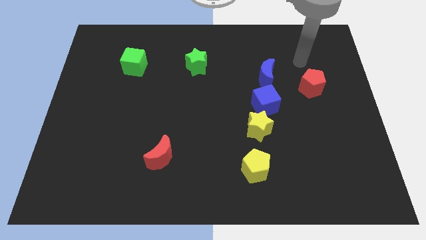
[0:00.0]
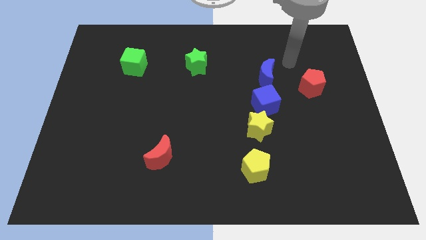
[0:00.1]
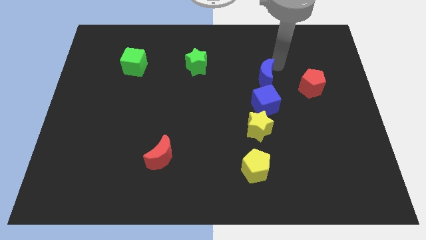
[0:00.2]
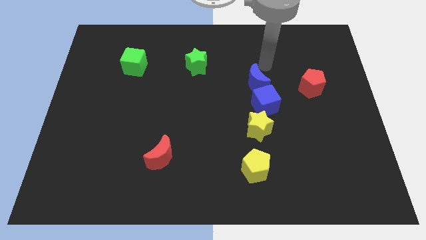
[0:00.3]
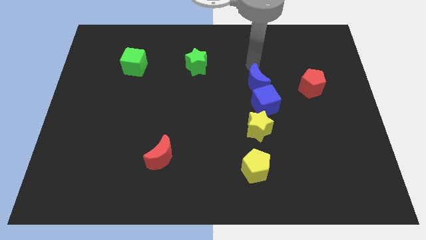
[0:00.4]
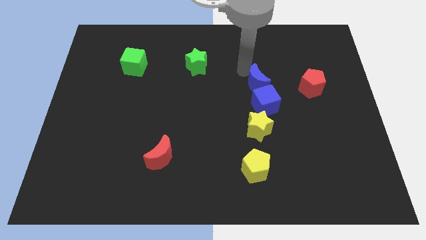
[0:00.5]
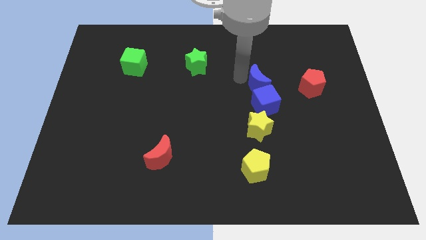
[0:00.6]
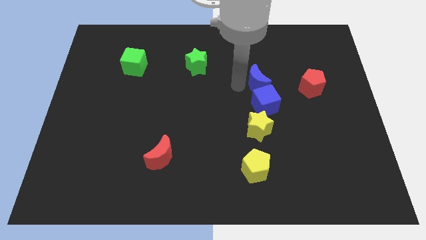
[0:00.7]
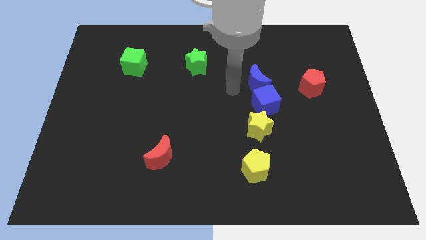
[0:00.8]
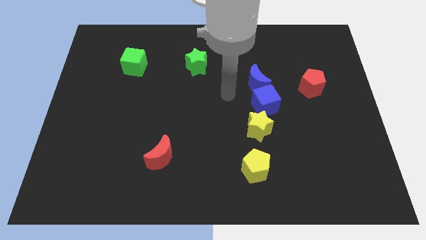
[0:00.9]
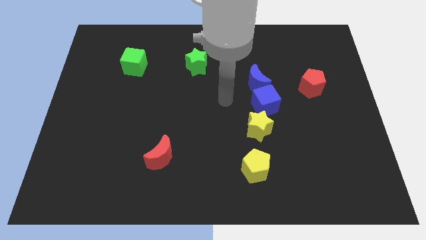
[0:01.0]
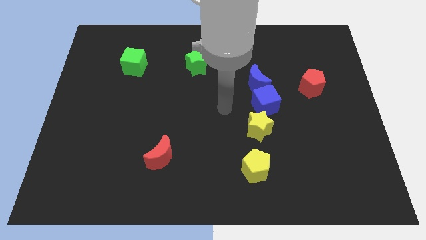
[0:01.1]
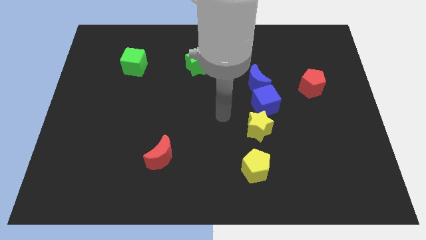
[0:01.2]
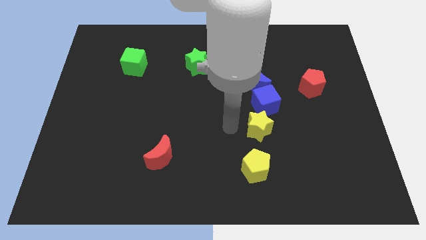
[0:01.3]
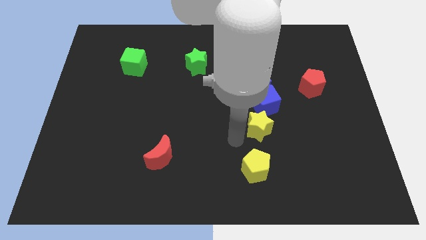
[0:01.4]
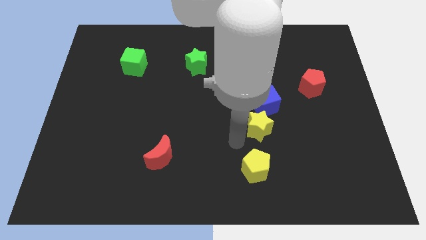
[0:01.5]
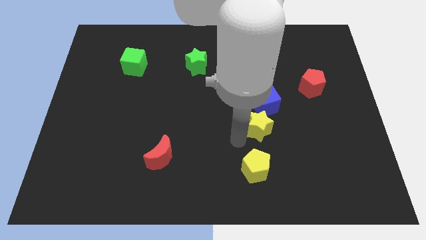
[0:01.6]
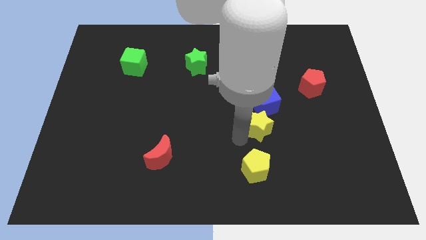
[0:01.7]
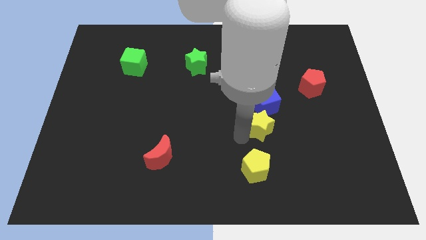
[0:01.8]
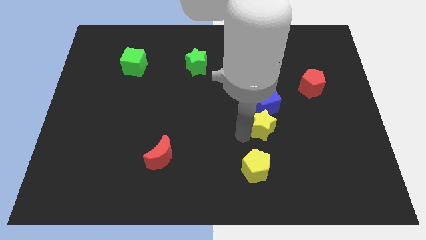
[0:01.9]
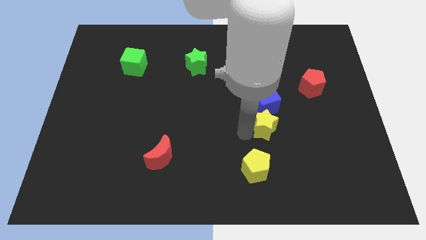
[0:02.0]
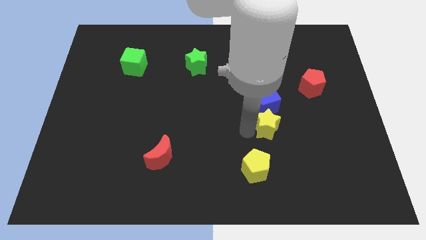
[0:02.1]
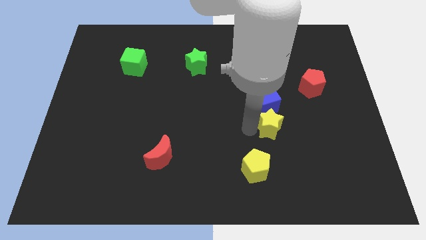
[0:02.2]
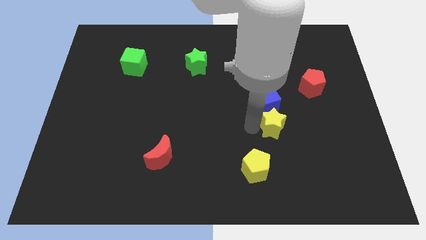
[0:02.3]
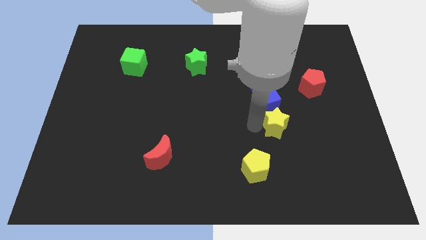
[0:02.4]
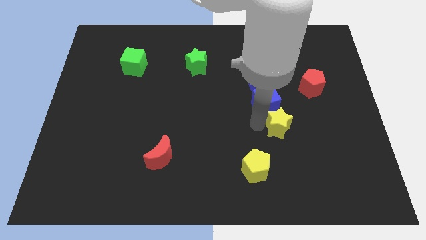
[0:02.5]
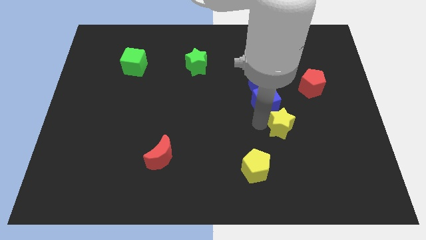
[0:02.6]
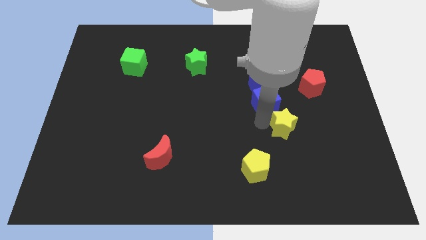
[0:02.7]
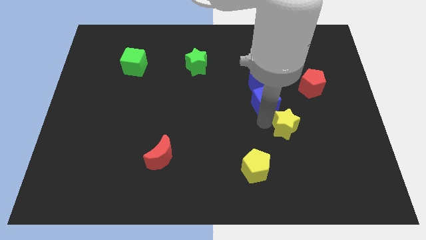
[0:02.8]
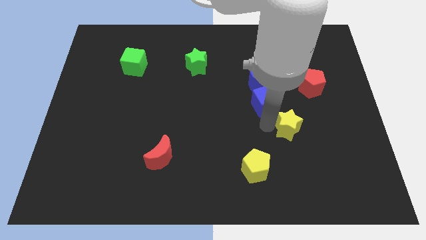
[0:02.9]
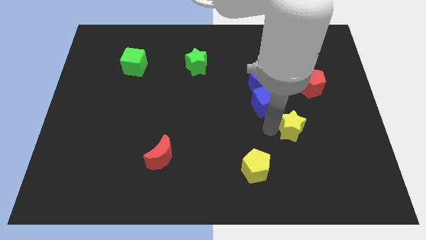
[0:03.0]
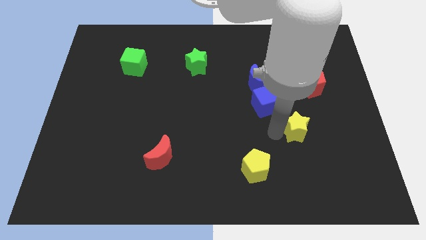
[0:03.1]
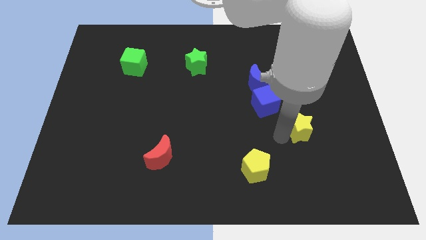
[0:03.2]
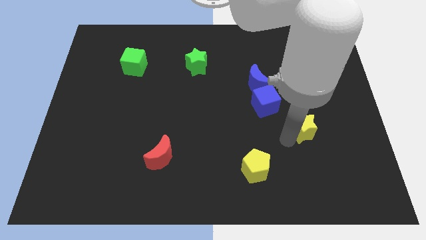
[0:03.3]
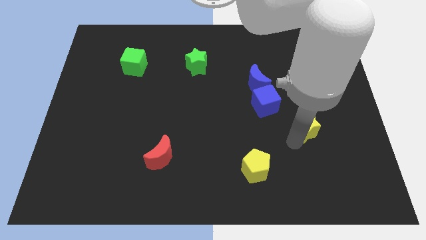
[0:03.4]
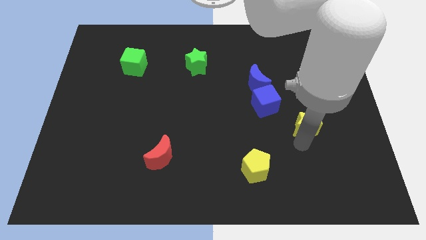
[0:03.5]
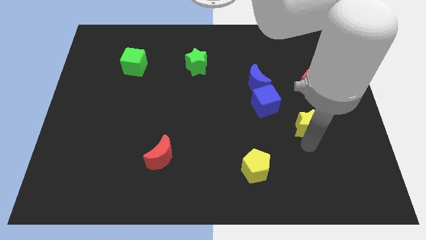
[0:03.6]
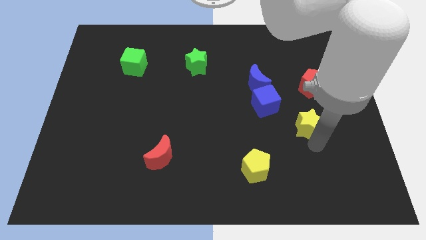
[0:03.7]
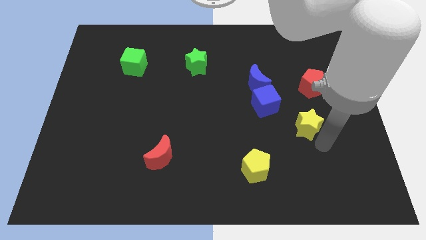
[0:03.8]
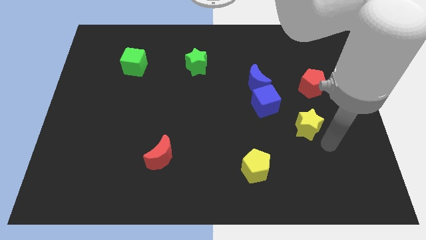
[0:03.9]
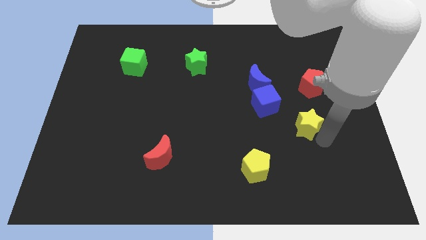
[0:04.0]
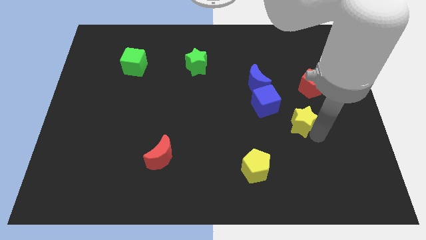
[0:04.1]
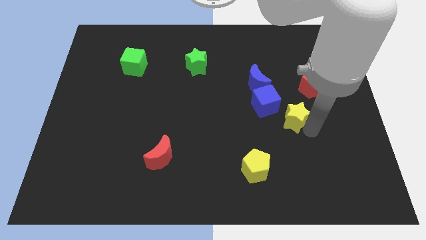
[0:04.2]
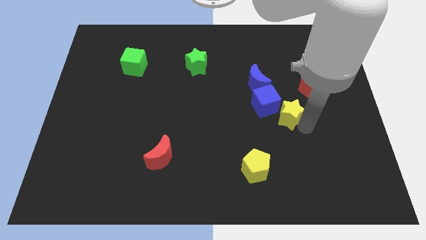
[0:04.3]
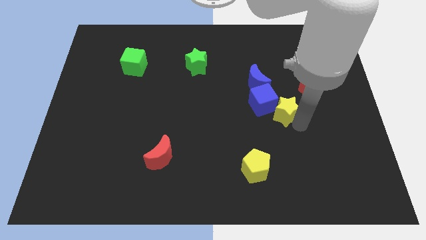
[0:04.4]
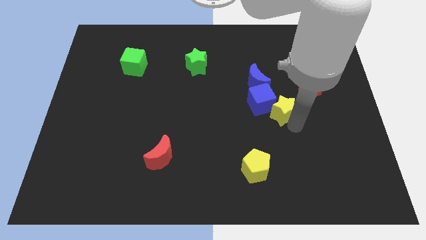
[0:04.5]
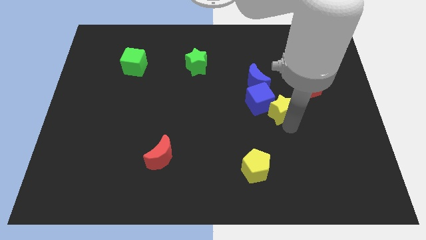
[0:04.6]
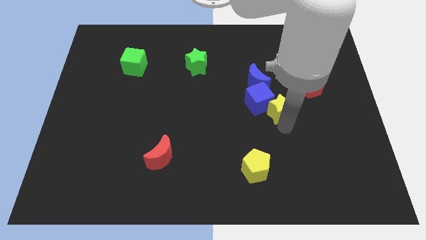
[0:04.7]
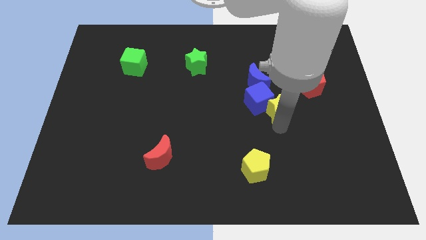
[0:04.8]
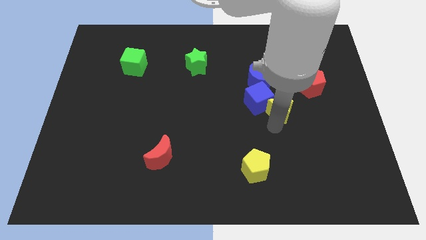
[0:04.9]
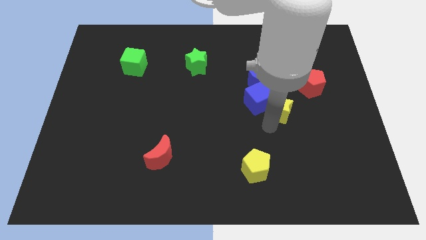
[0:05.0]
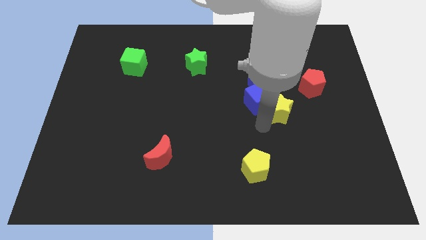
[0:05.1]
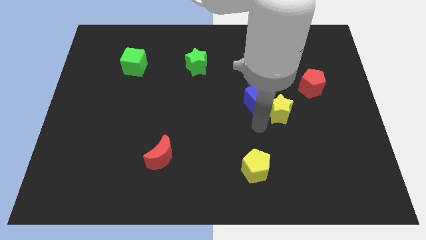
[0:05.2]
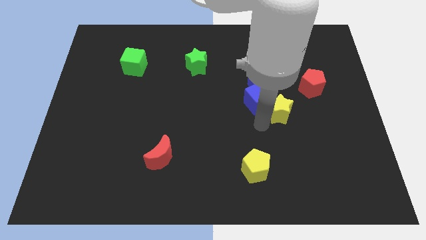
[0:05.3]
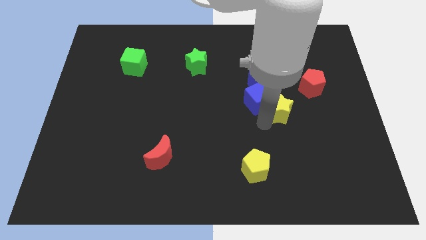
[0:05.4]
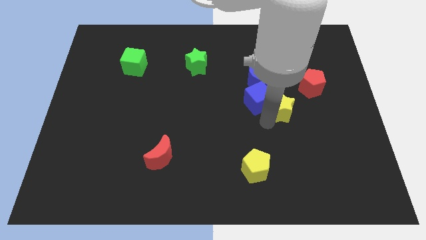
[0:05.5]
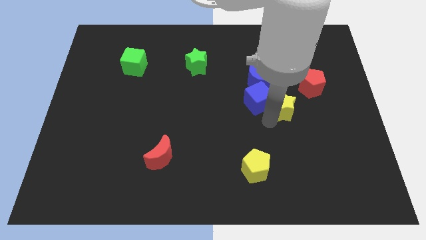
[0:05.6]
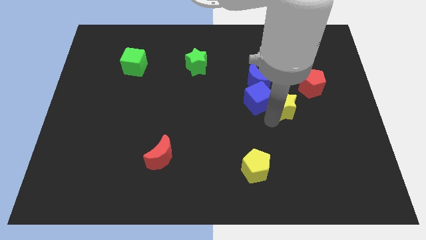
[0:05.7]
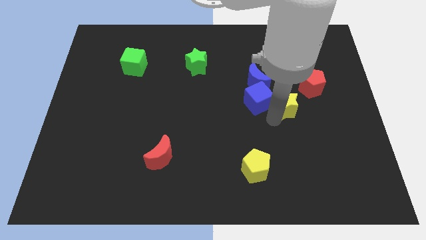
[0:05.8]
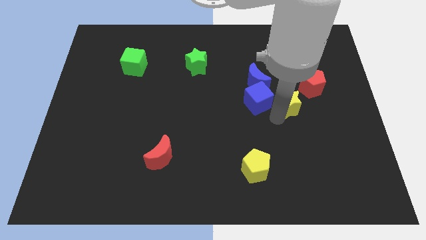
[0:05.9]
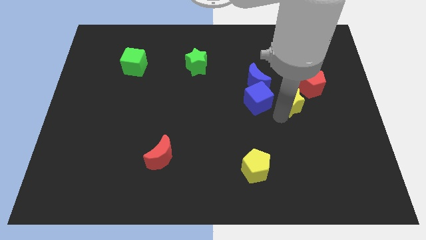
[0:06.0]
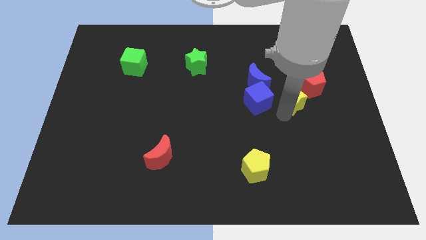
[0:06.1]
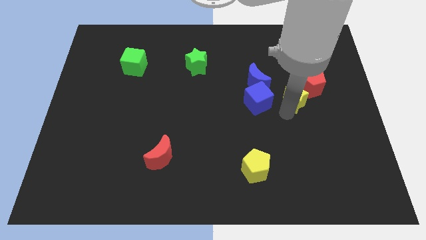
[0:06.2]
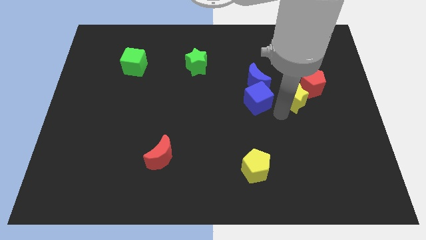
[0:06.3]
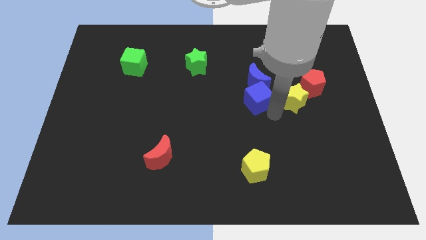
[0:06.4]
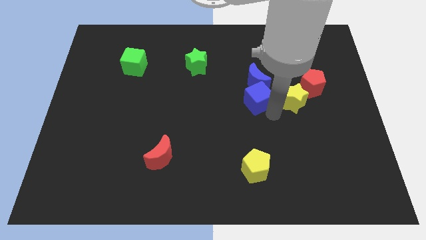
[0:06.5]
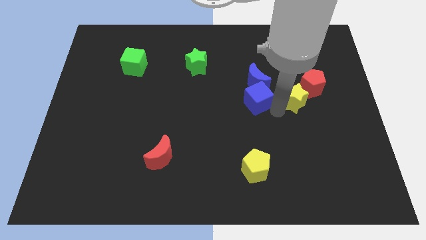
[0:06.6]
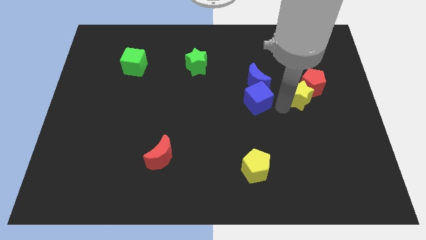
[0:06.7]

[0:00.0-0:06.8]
move the yellow star close to the red pentagon
